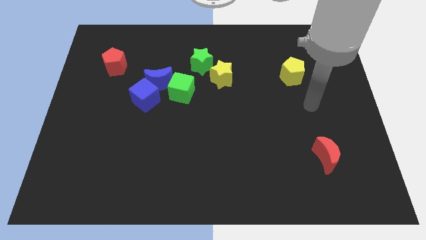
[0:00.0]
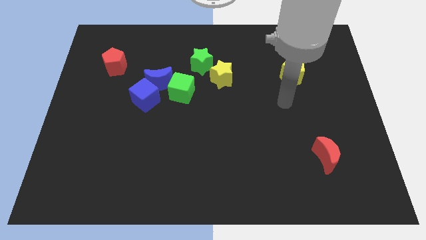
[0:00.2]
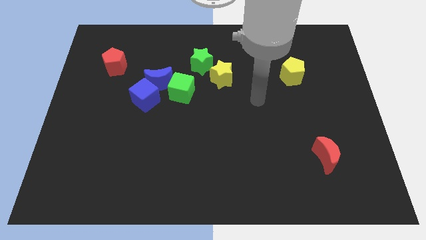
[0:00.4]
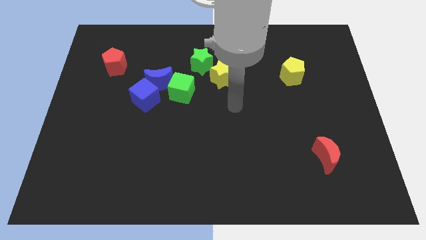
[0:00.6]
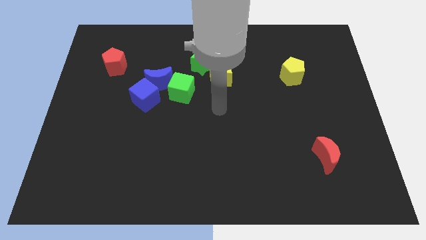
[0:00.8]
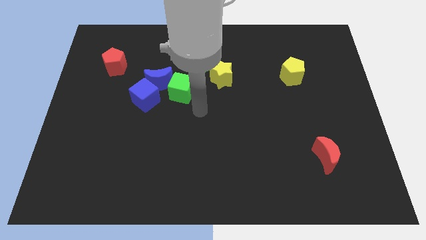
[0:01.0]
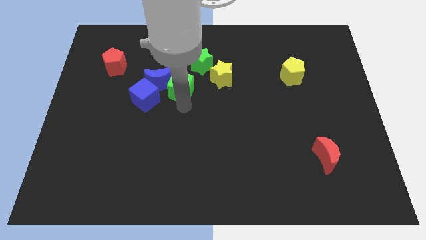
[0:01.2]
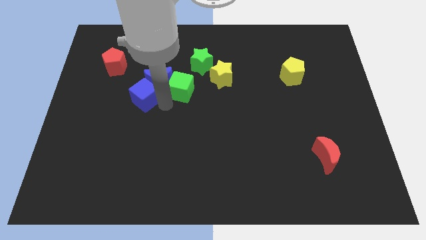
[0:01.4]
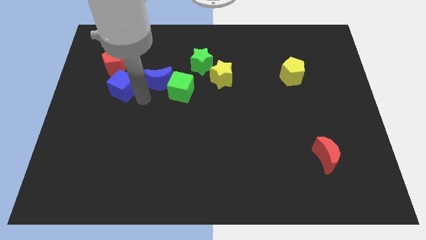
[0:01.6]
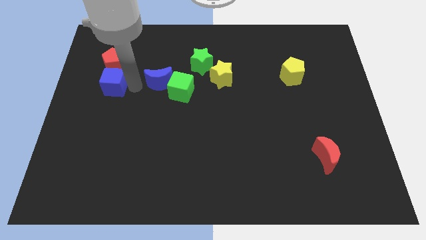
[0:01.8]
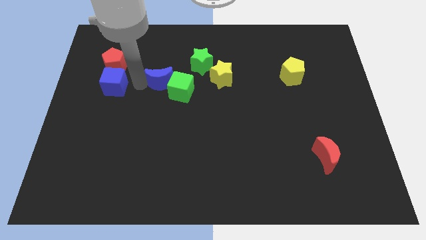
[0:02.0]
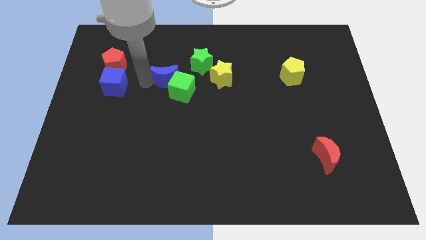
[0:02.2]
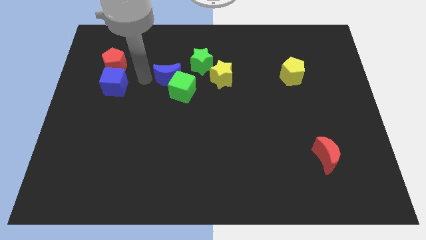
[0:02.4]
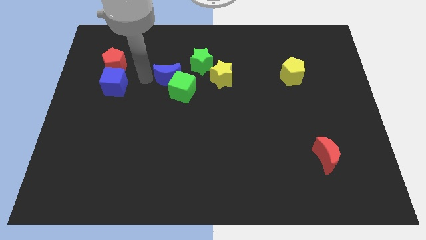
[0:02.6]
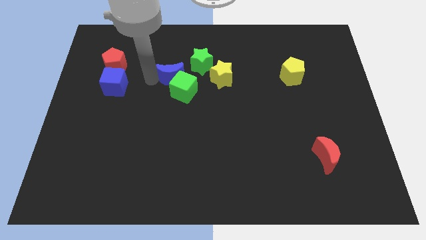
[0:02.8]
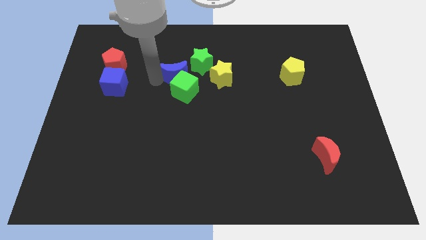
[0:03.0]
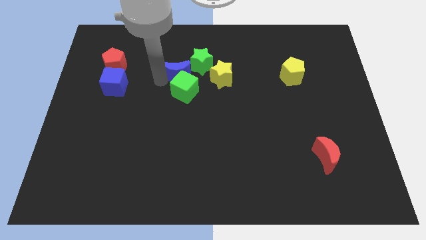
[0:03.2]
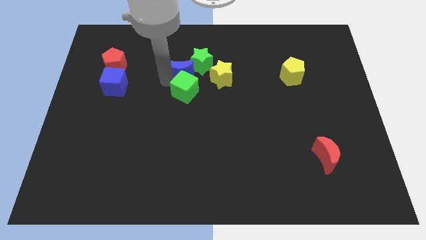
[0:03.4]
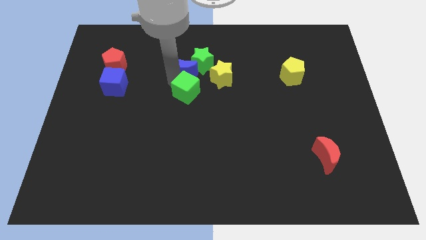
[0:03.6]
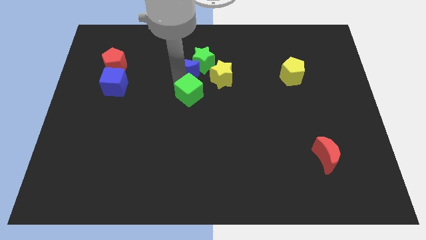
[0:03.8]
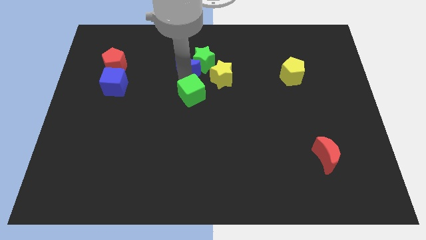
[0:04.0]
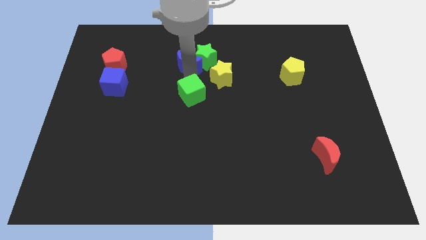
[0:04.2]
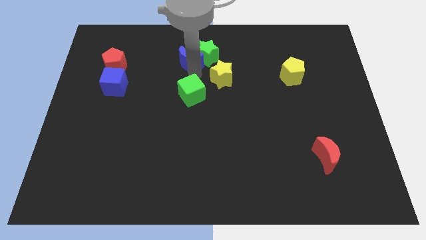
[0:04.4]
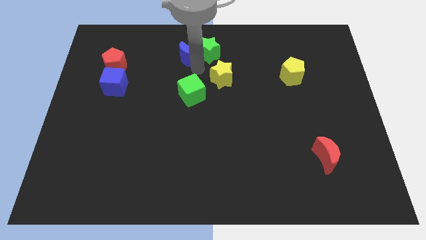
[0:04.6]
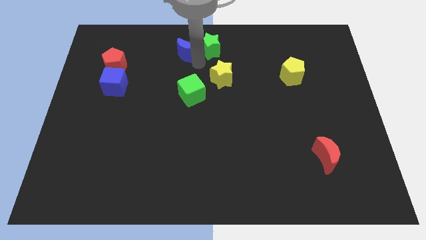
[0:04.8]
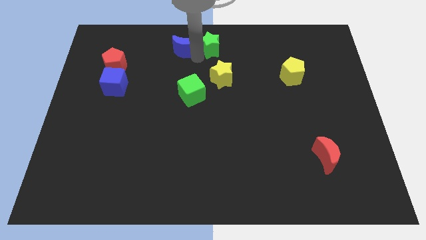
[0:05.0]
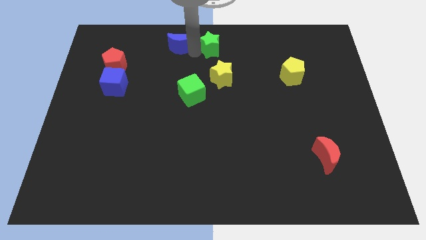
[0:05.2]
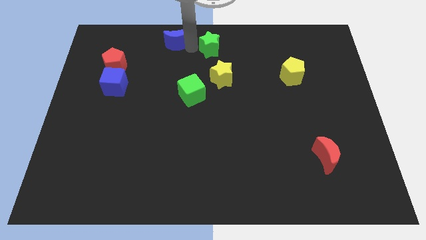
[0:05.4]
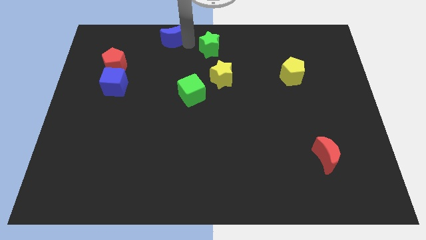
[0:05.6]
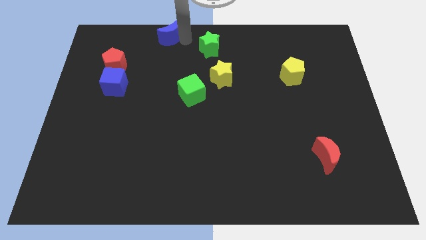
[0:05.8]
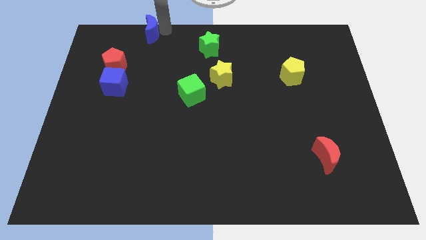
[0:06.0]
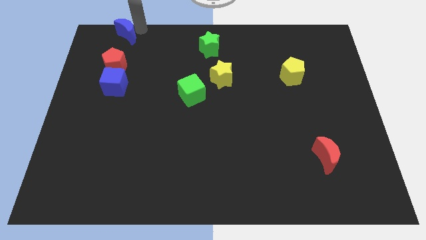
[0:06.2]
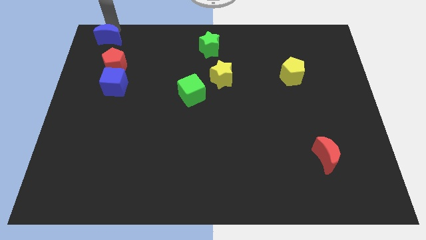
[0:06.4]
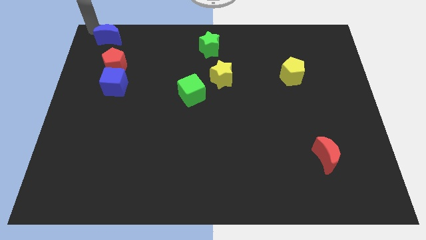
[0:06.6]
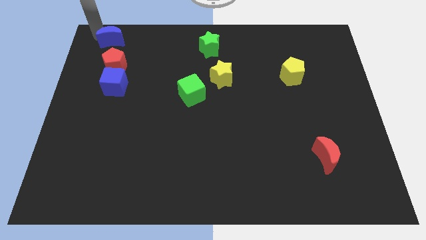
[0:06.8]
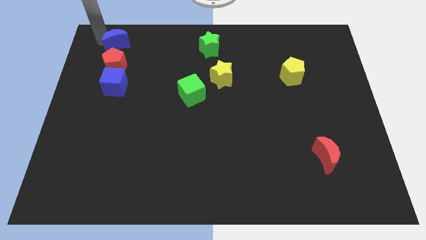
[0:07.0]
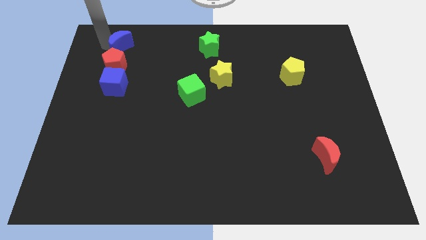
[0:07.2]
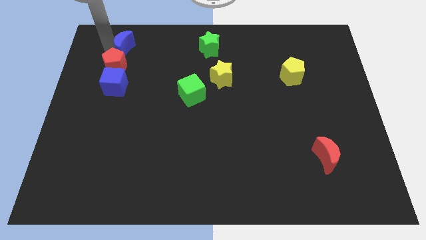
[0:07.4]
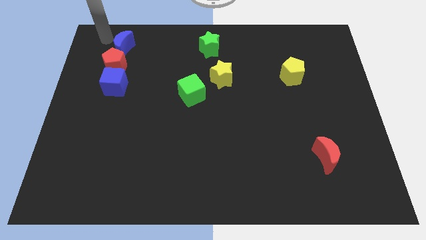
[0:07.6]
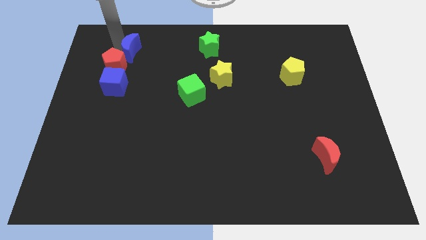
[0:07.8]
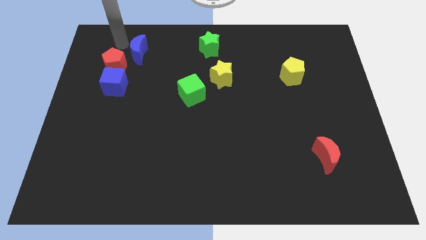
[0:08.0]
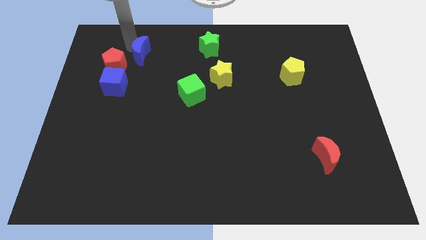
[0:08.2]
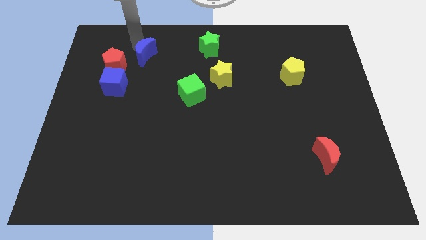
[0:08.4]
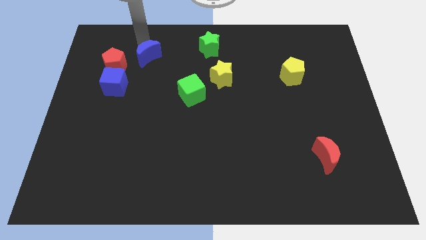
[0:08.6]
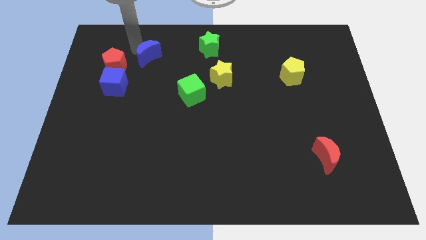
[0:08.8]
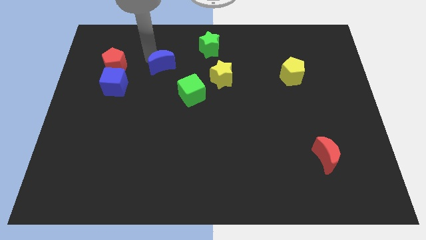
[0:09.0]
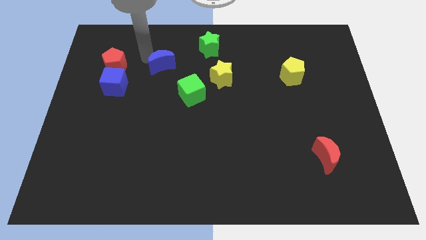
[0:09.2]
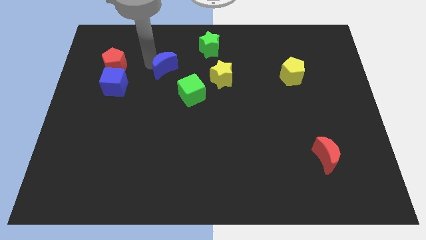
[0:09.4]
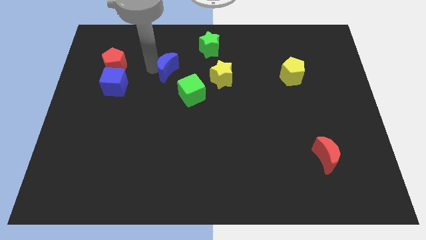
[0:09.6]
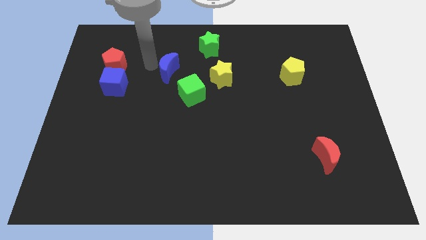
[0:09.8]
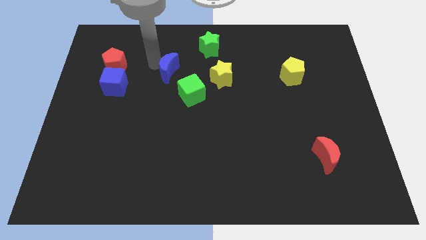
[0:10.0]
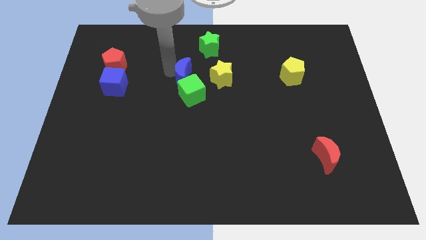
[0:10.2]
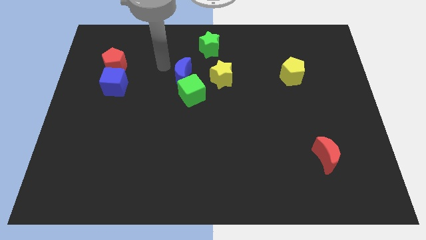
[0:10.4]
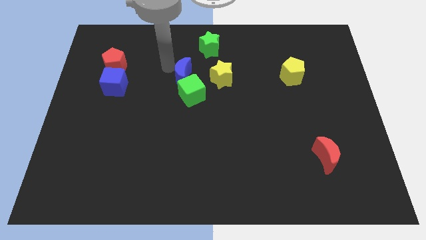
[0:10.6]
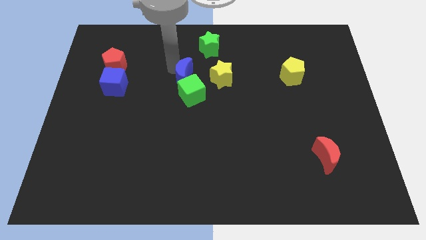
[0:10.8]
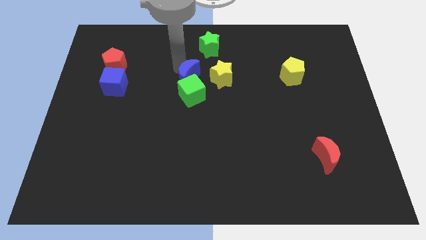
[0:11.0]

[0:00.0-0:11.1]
slightly slide the blue moon right

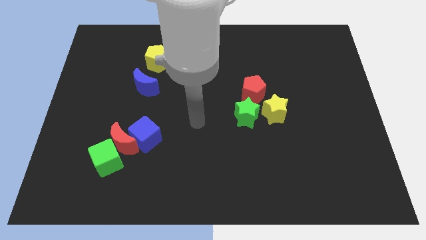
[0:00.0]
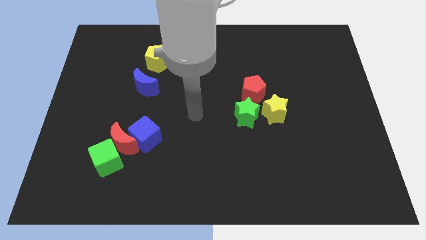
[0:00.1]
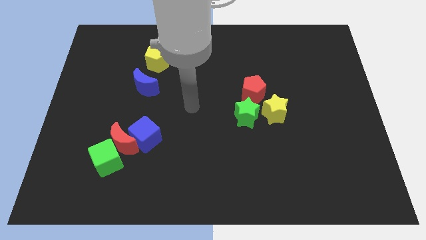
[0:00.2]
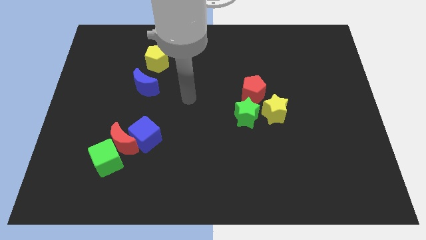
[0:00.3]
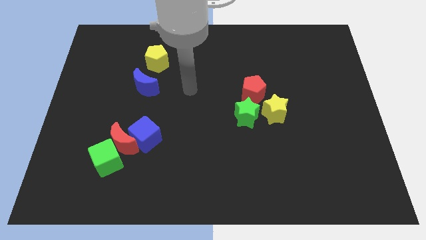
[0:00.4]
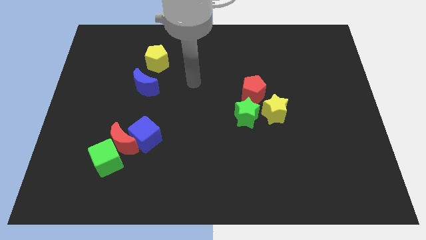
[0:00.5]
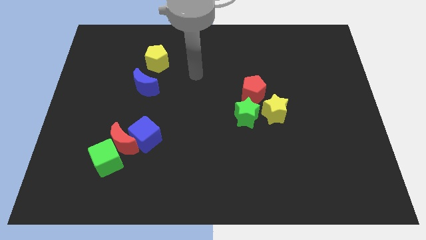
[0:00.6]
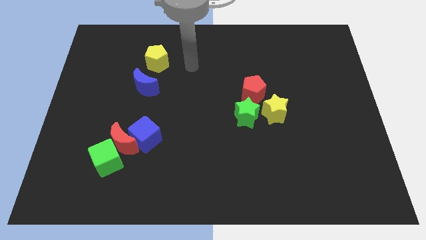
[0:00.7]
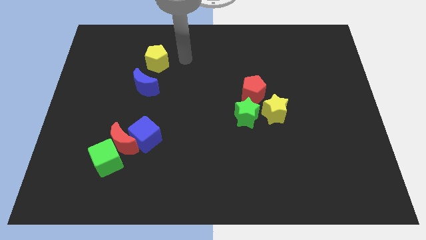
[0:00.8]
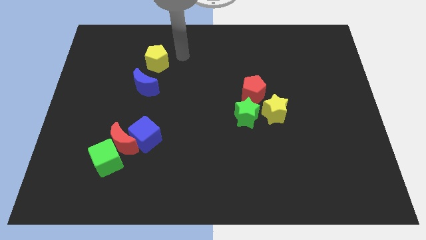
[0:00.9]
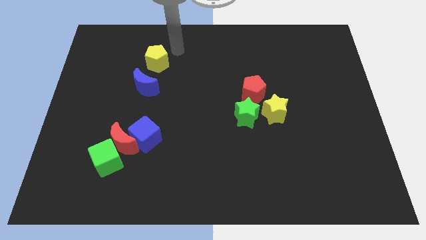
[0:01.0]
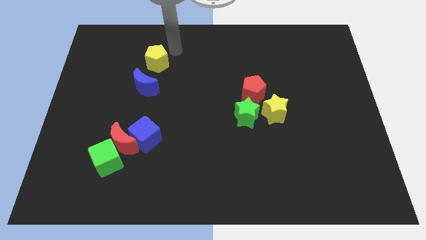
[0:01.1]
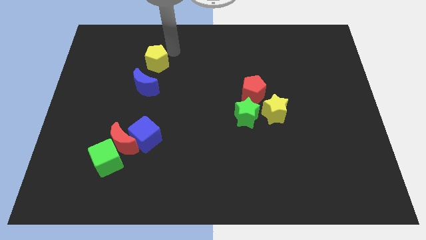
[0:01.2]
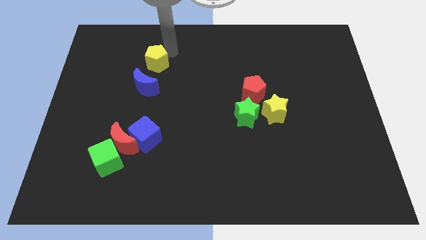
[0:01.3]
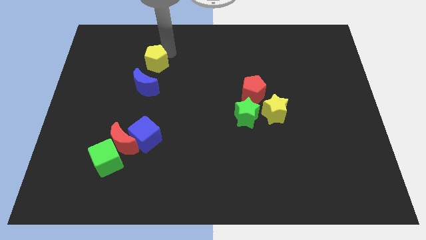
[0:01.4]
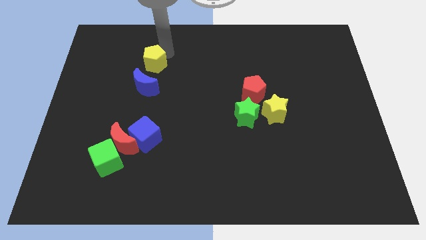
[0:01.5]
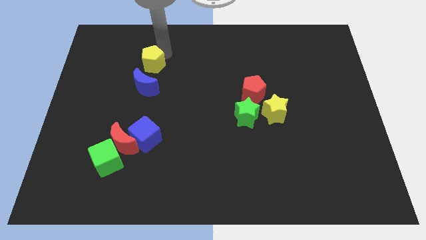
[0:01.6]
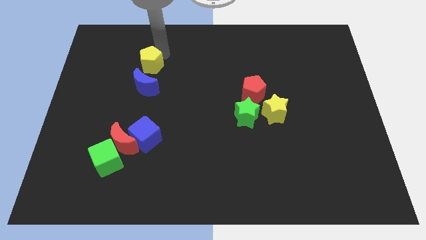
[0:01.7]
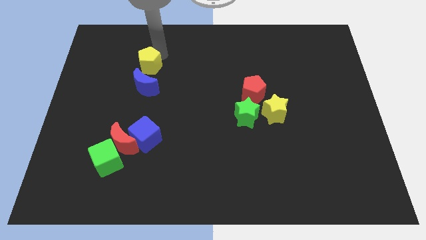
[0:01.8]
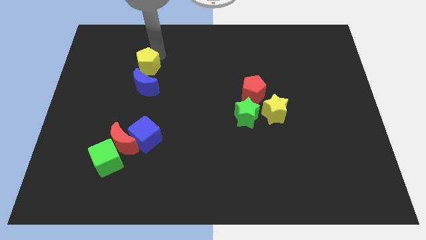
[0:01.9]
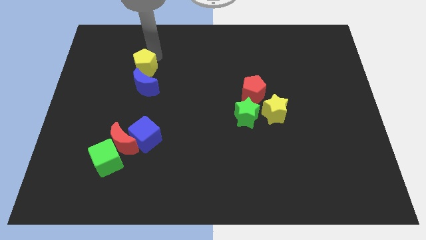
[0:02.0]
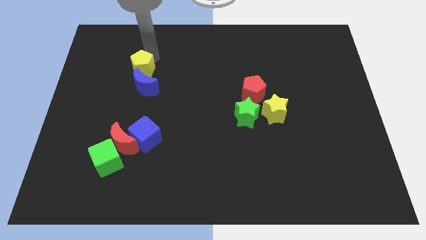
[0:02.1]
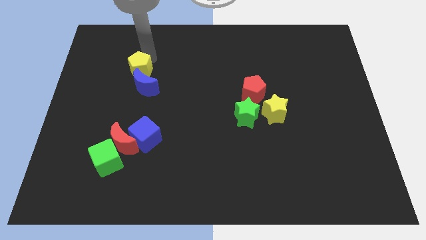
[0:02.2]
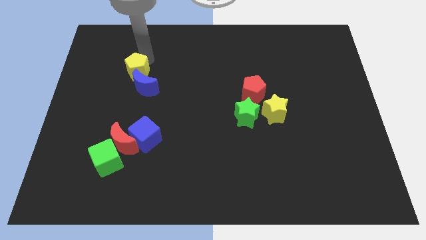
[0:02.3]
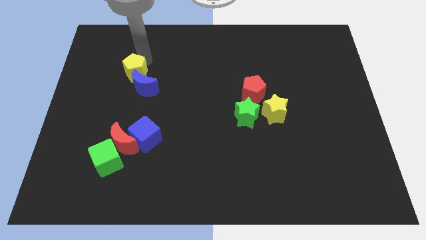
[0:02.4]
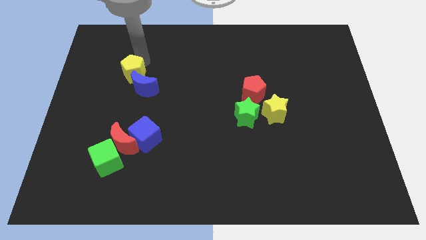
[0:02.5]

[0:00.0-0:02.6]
slightly push the yellow pentagon downwards and then to the left
